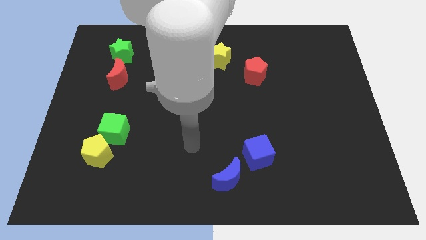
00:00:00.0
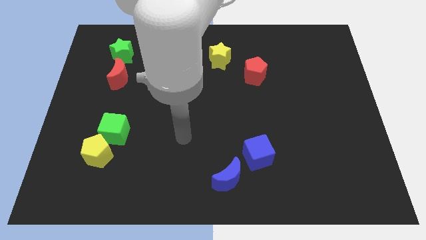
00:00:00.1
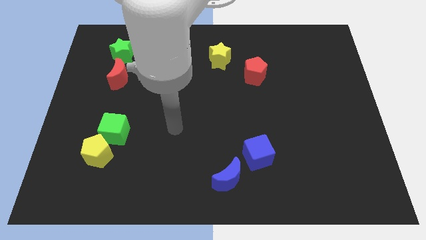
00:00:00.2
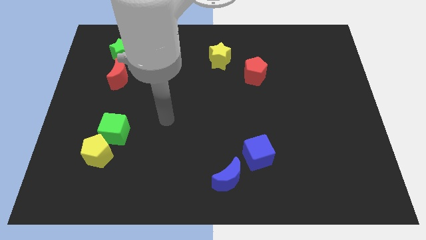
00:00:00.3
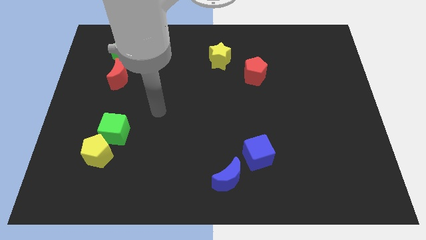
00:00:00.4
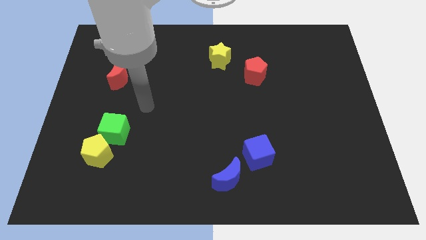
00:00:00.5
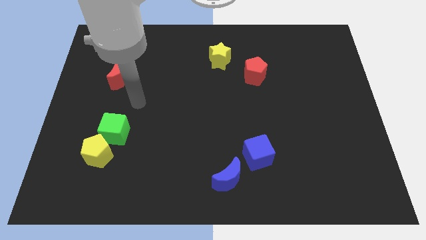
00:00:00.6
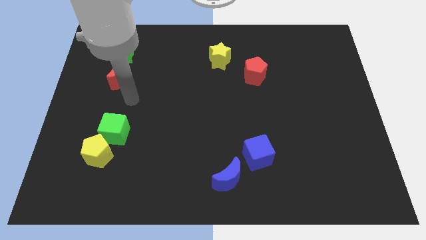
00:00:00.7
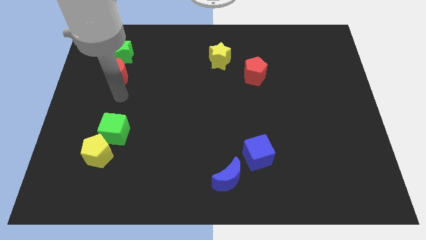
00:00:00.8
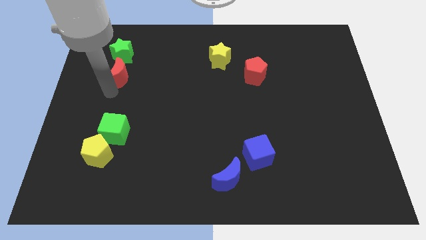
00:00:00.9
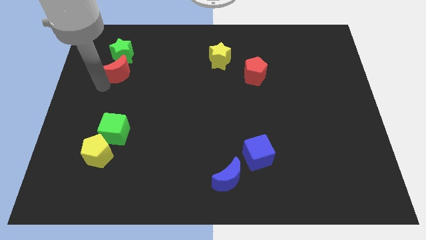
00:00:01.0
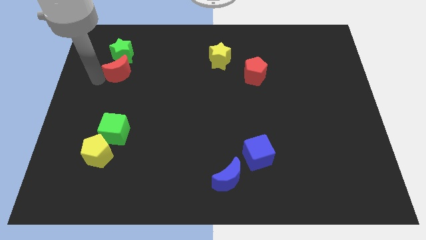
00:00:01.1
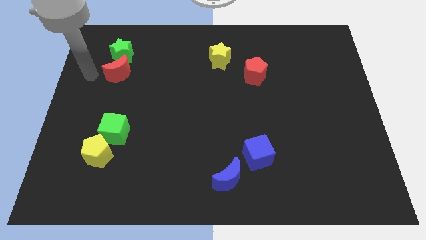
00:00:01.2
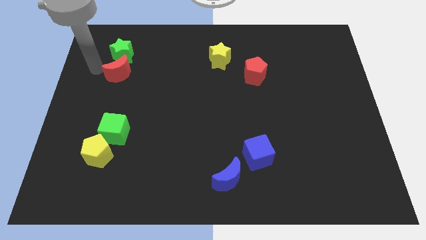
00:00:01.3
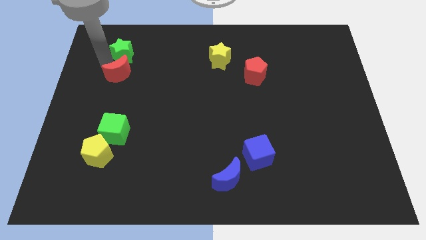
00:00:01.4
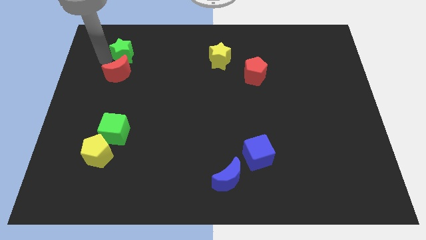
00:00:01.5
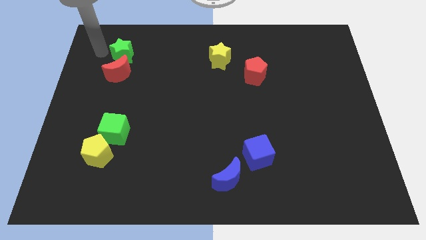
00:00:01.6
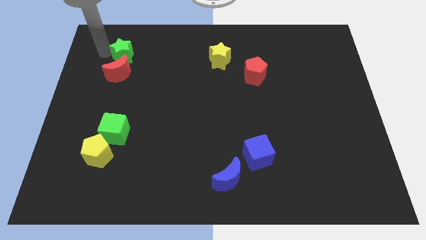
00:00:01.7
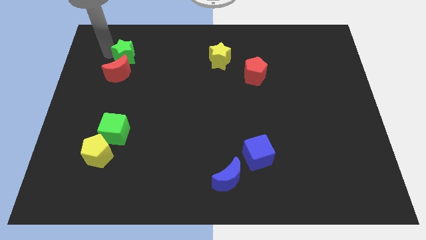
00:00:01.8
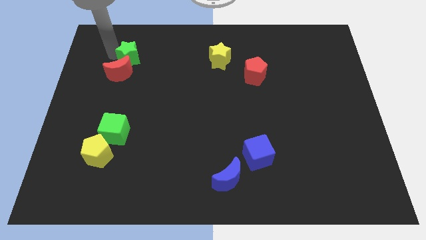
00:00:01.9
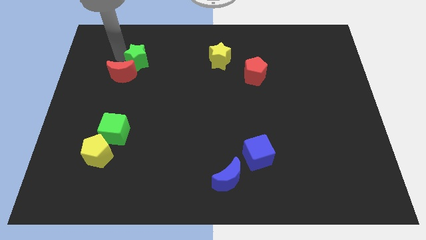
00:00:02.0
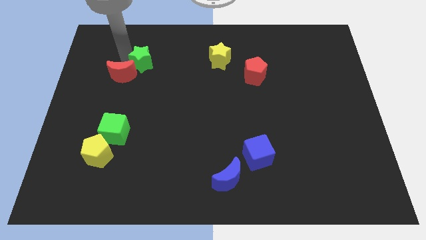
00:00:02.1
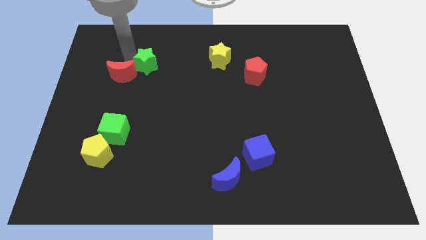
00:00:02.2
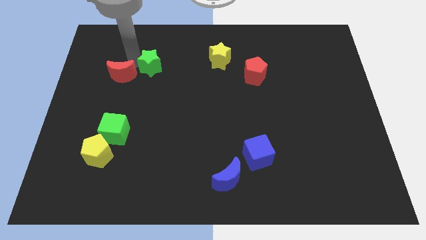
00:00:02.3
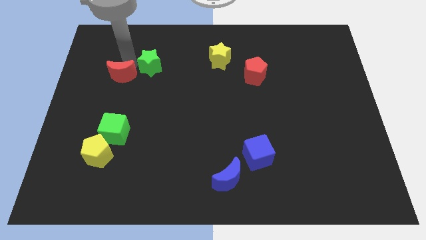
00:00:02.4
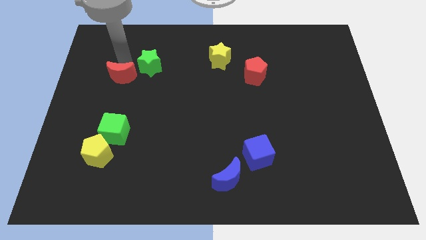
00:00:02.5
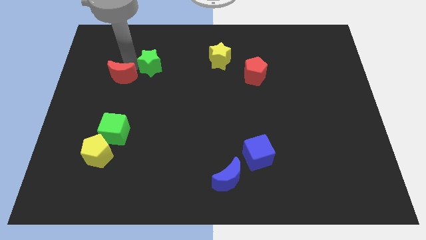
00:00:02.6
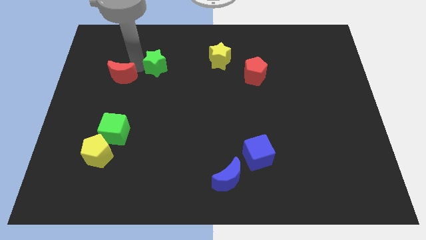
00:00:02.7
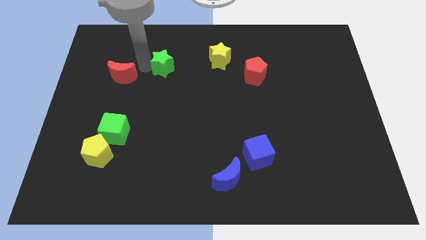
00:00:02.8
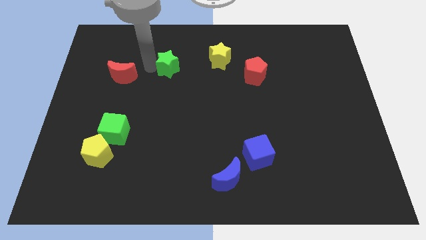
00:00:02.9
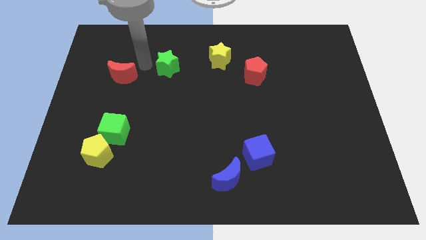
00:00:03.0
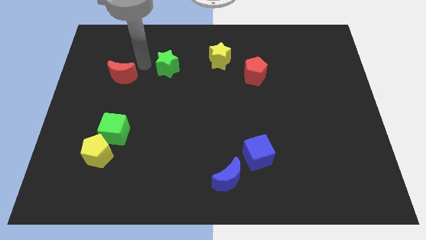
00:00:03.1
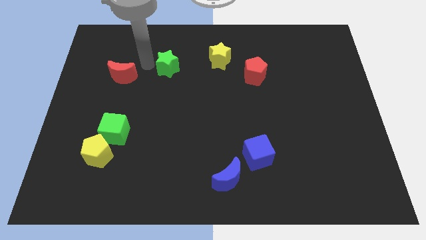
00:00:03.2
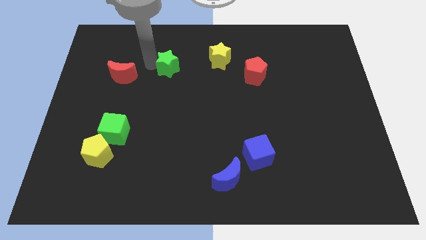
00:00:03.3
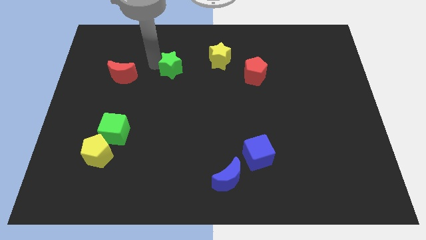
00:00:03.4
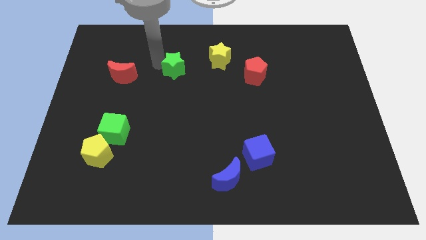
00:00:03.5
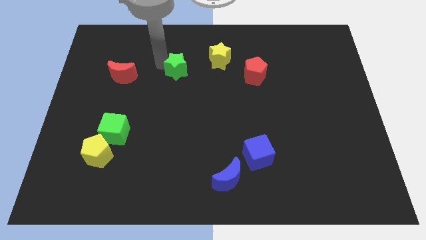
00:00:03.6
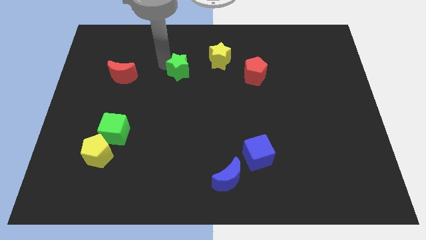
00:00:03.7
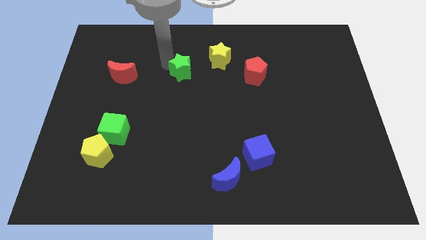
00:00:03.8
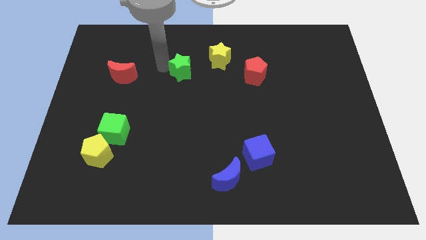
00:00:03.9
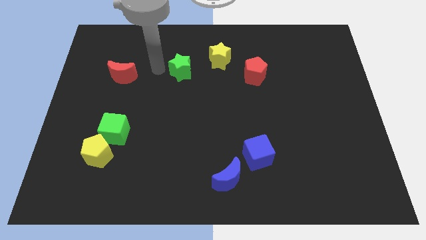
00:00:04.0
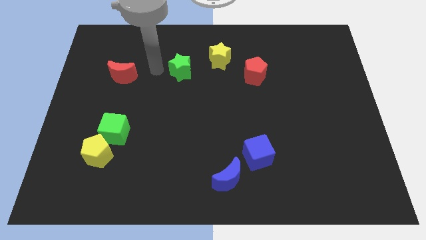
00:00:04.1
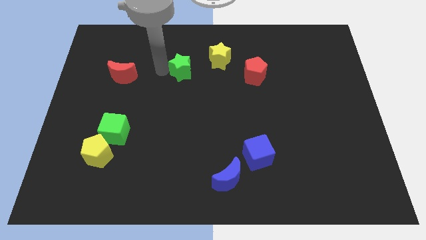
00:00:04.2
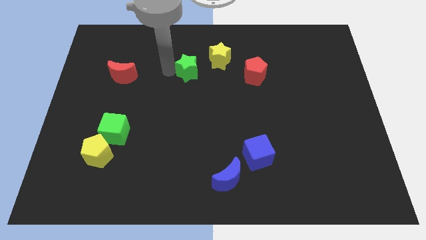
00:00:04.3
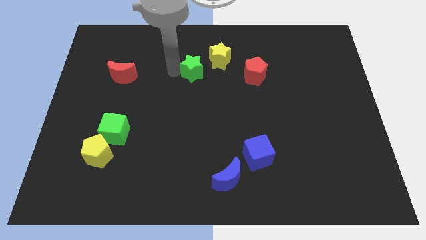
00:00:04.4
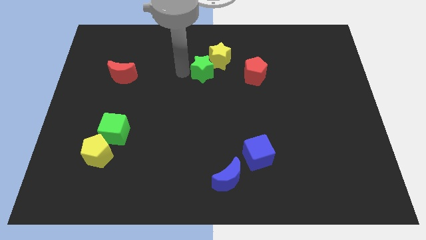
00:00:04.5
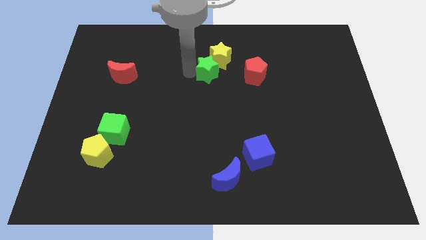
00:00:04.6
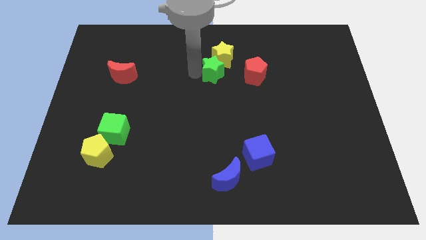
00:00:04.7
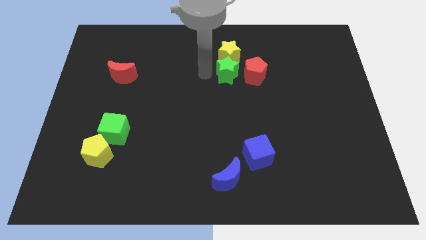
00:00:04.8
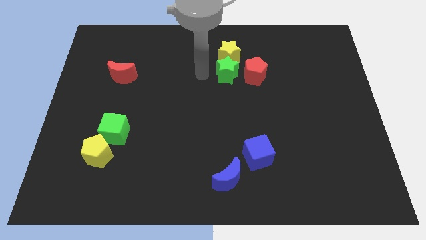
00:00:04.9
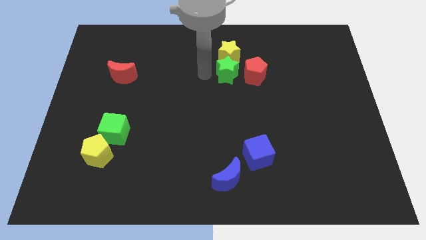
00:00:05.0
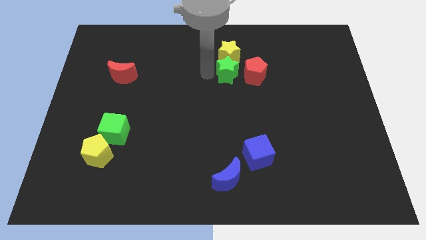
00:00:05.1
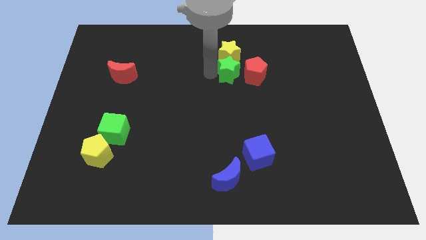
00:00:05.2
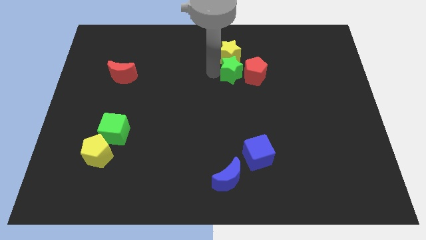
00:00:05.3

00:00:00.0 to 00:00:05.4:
move the green star next to the red pentagon

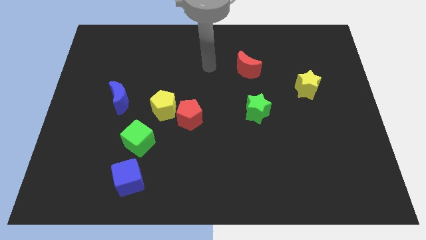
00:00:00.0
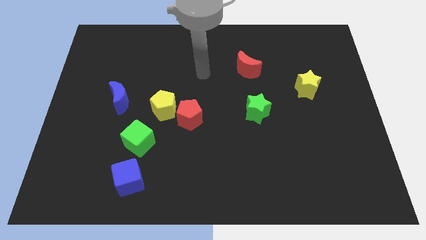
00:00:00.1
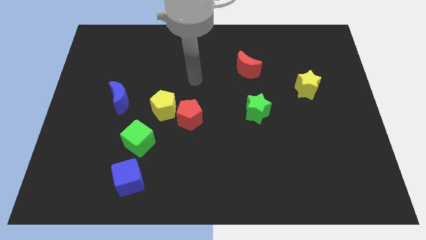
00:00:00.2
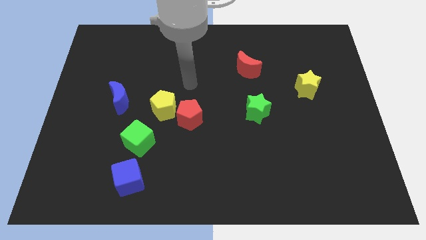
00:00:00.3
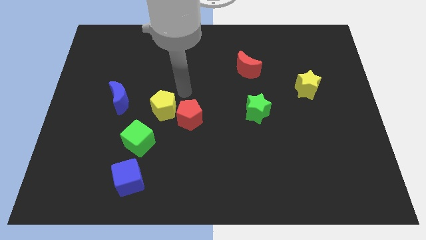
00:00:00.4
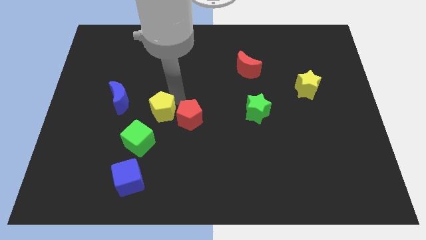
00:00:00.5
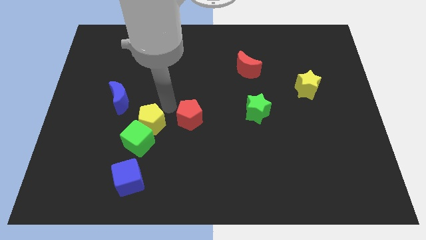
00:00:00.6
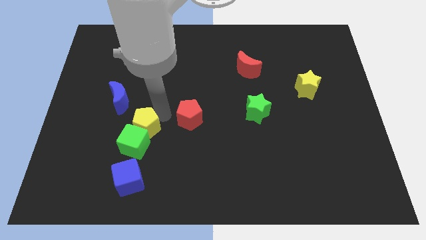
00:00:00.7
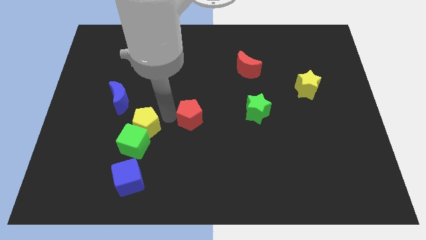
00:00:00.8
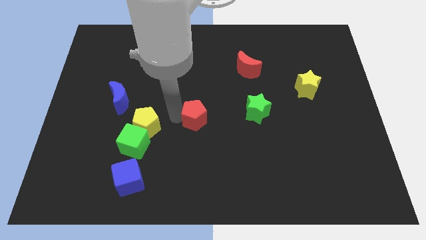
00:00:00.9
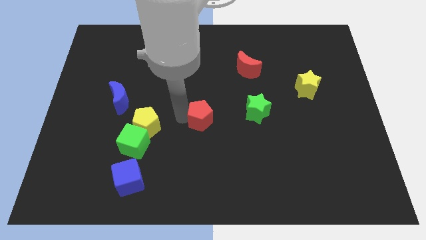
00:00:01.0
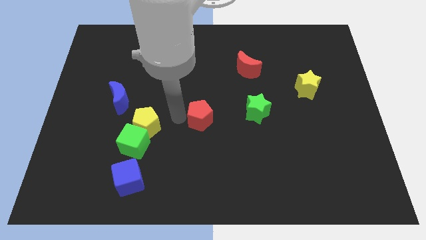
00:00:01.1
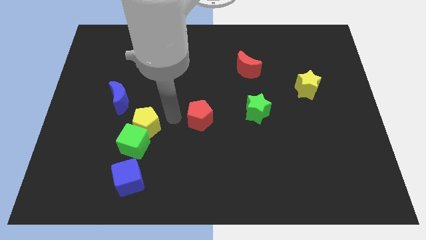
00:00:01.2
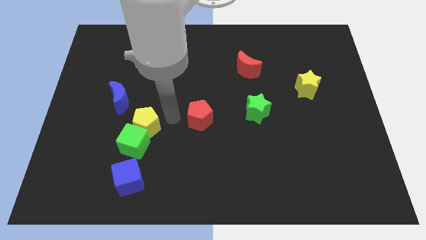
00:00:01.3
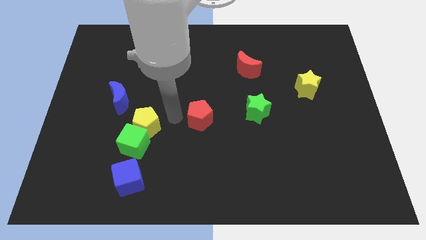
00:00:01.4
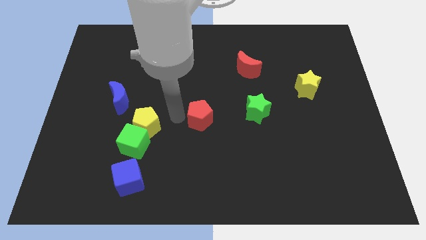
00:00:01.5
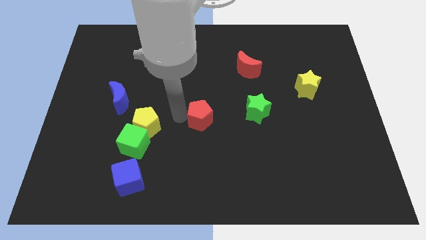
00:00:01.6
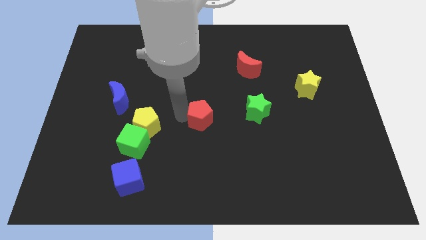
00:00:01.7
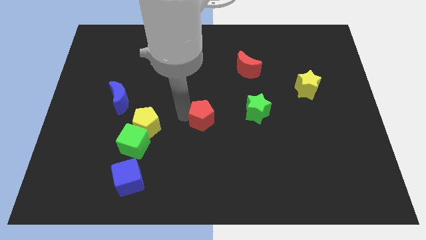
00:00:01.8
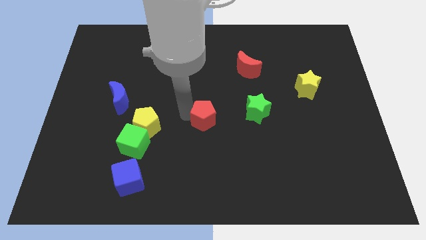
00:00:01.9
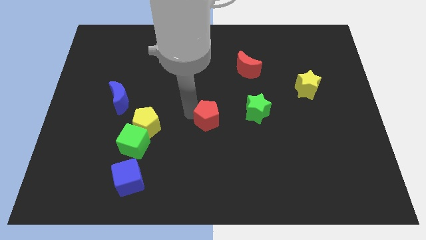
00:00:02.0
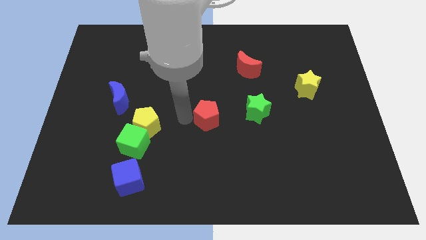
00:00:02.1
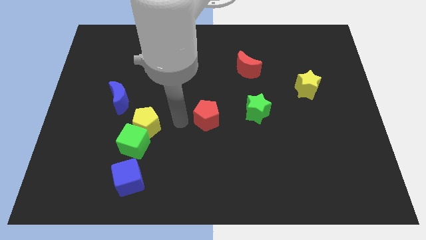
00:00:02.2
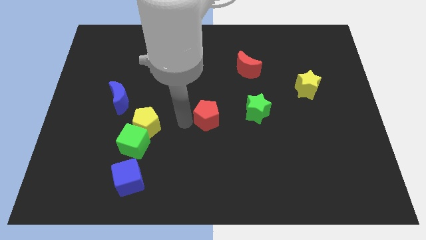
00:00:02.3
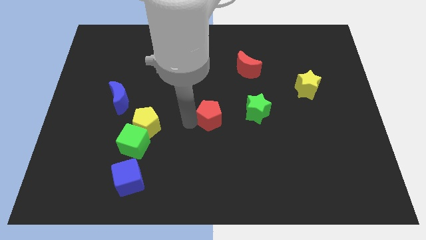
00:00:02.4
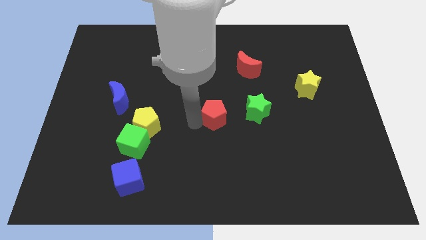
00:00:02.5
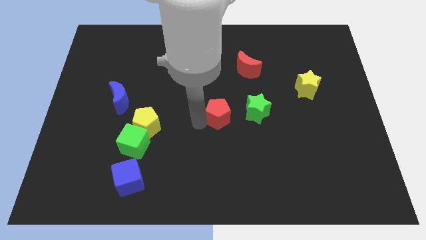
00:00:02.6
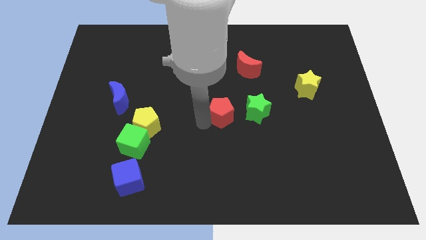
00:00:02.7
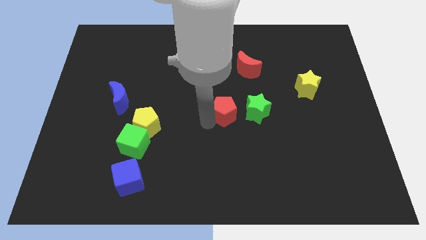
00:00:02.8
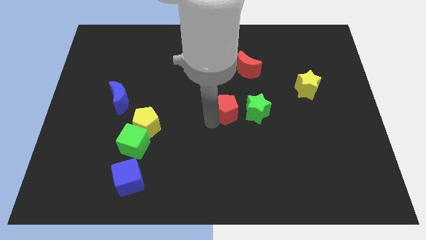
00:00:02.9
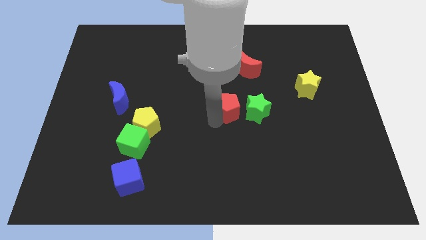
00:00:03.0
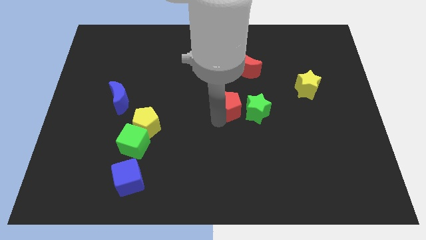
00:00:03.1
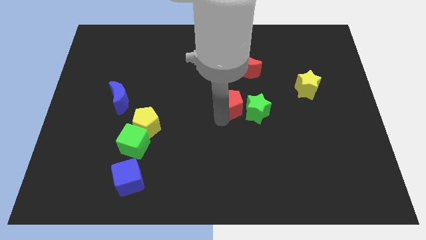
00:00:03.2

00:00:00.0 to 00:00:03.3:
slide the red pentagon to the green star
